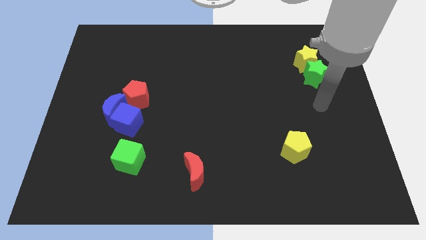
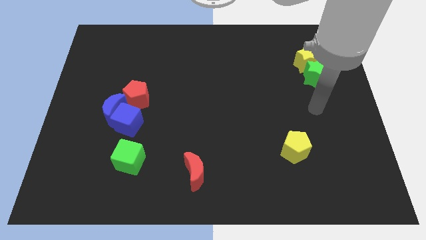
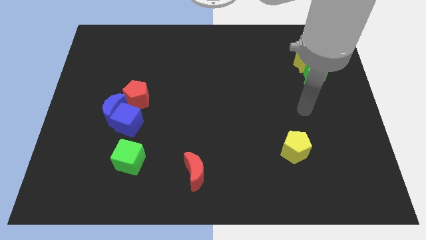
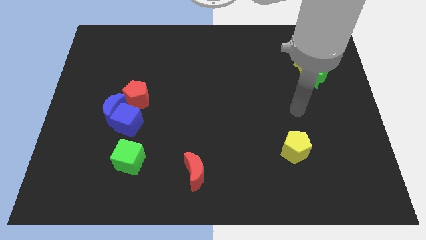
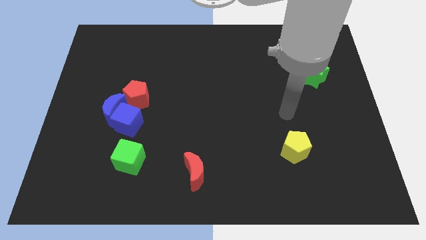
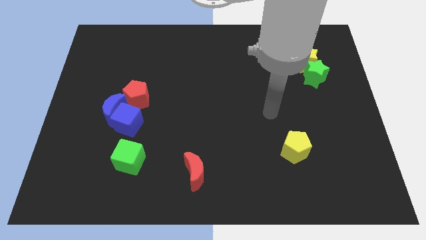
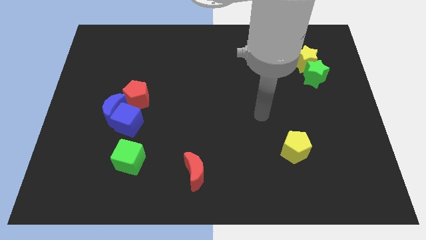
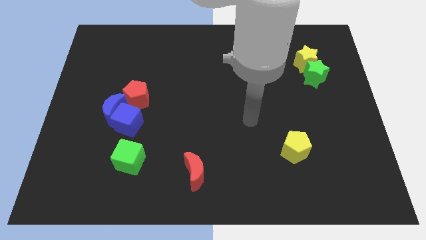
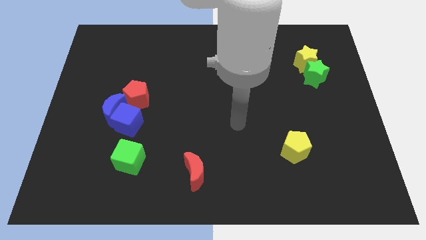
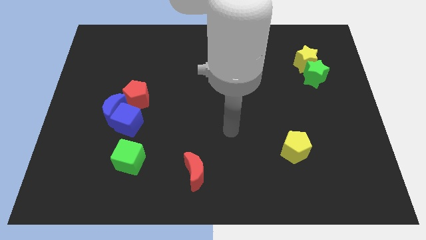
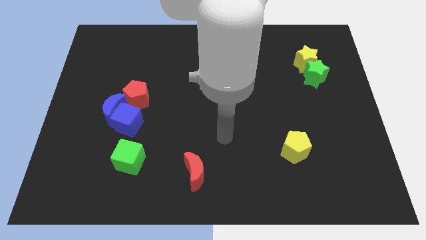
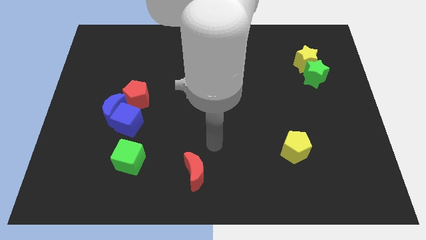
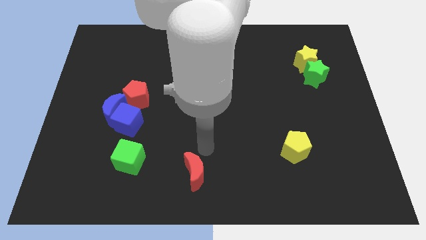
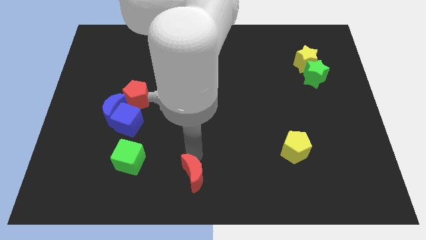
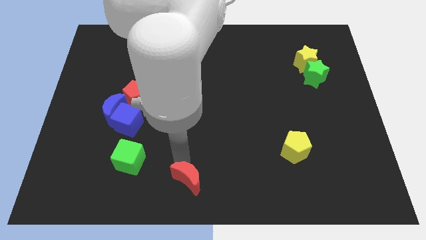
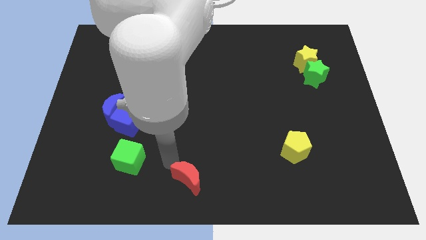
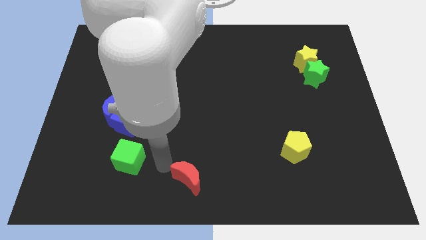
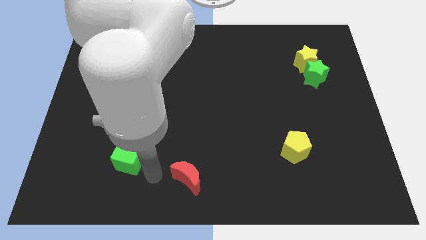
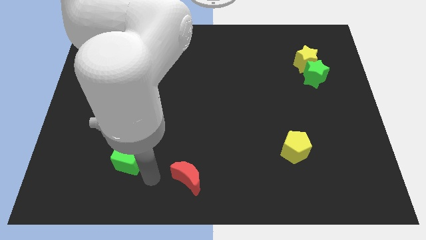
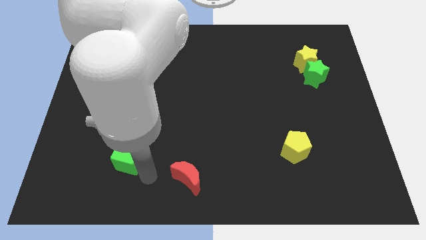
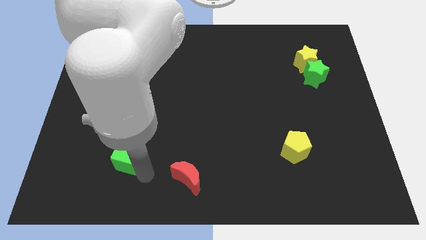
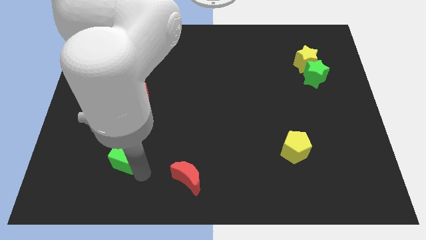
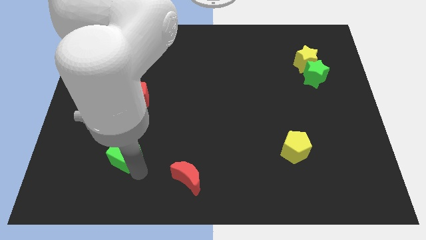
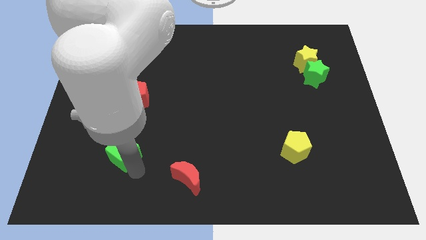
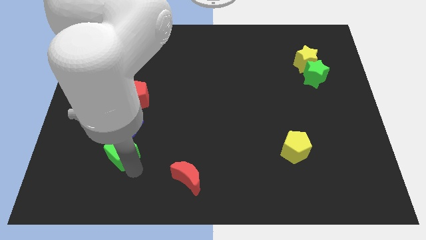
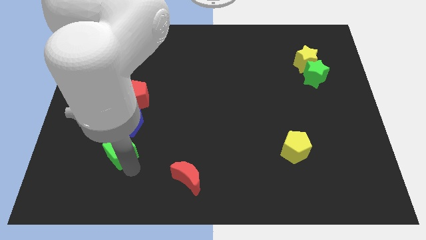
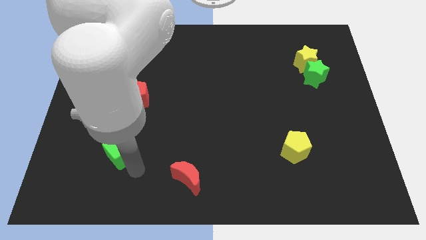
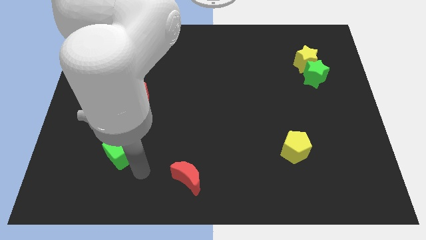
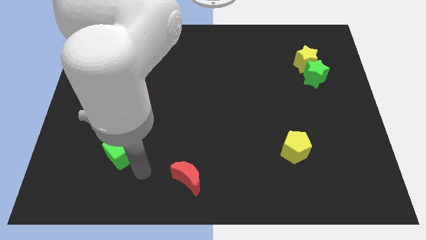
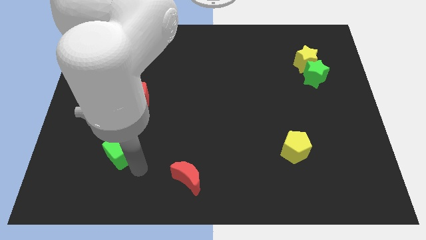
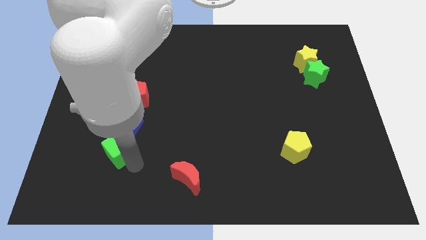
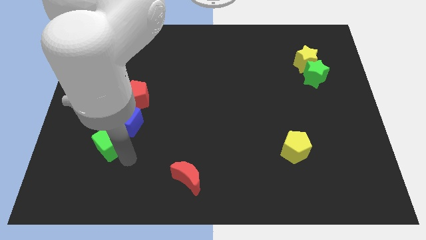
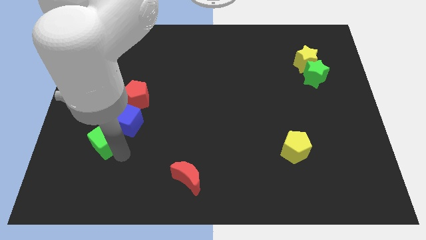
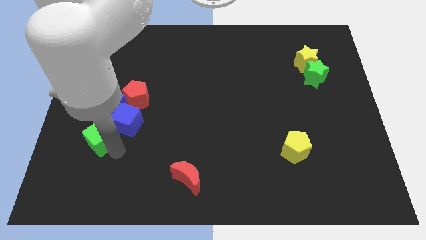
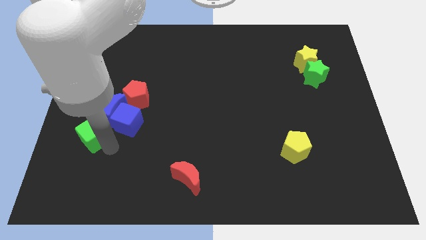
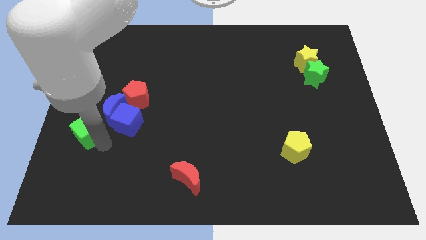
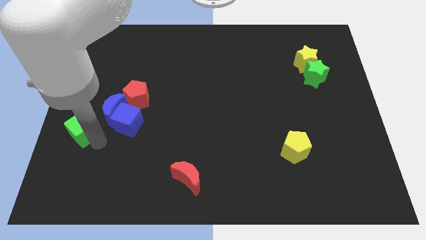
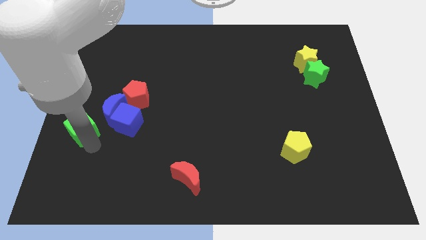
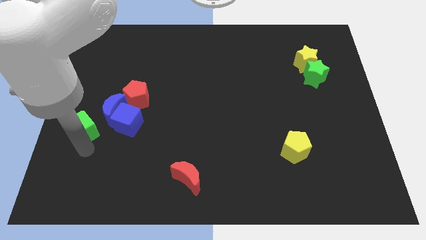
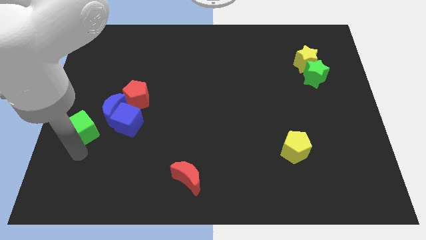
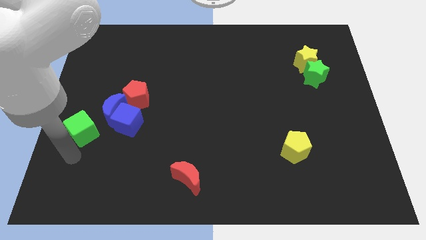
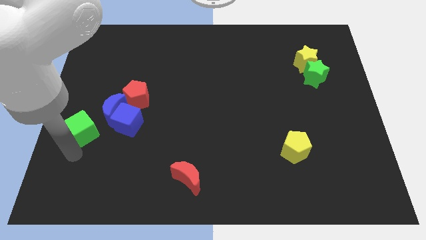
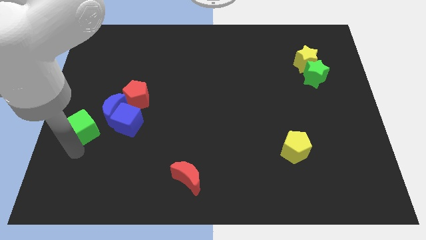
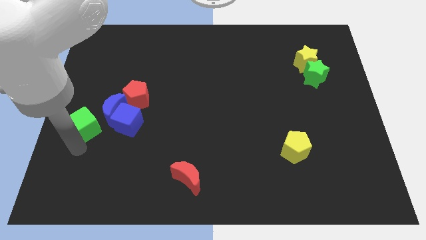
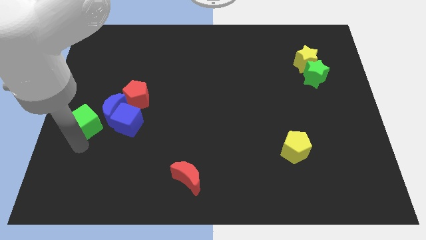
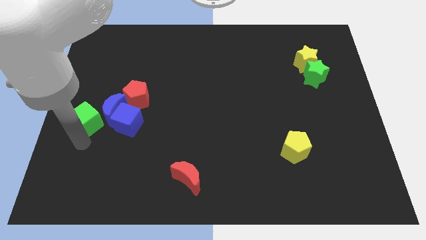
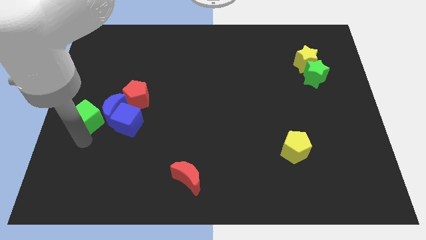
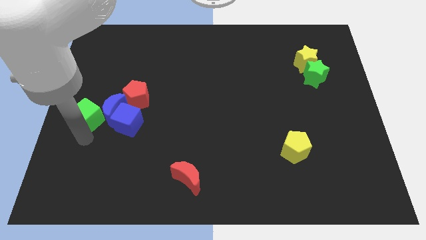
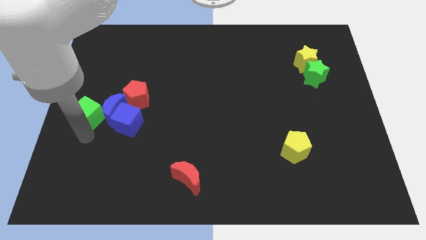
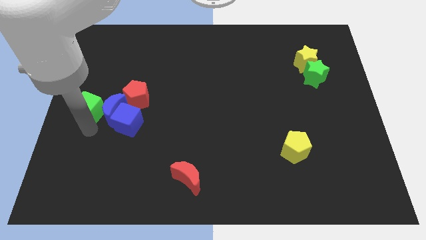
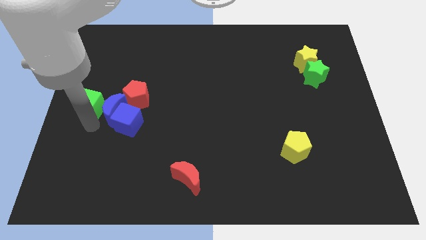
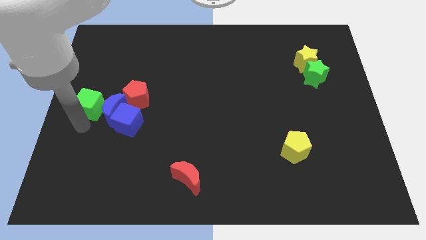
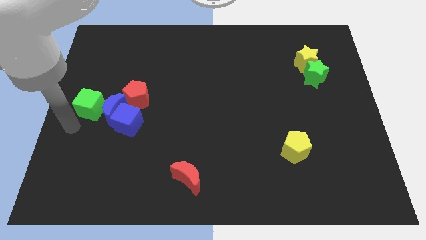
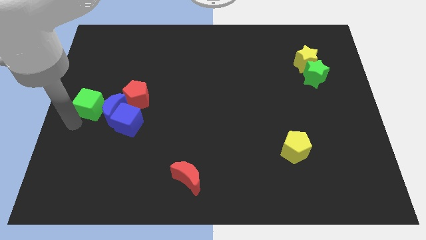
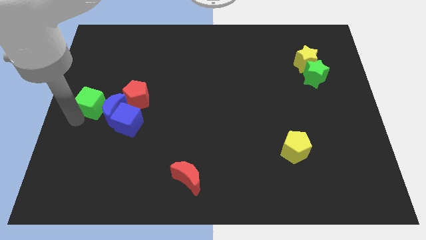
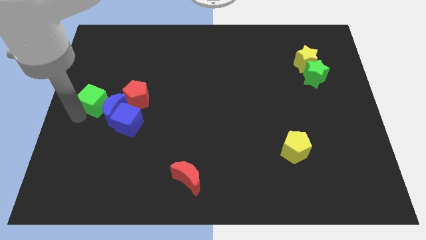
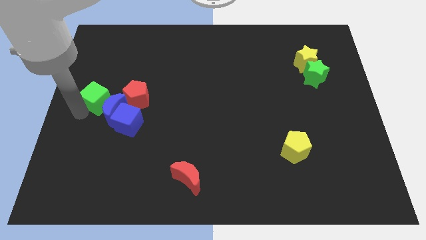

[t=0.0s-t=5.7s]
slide the green cube to the top of the blue moon

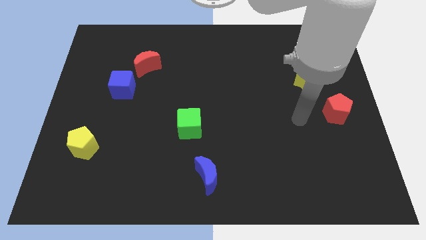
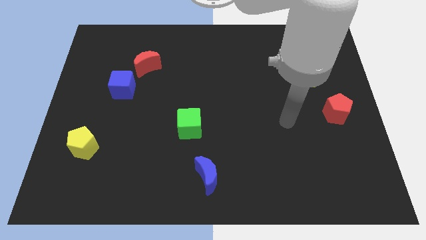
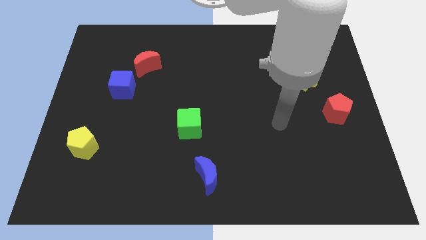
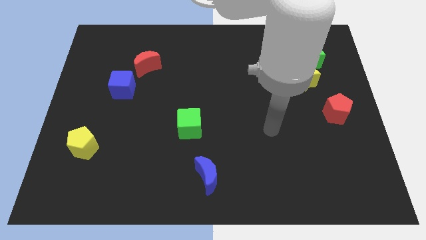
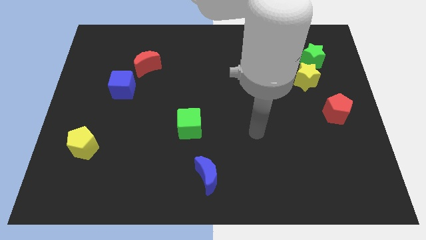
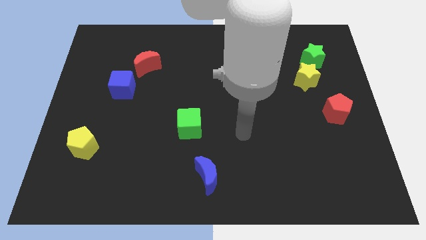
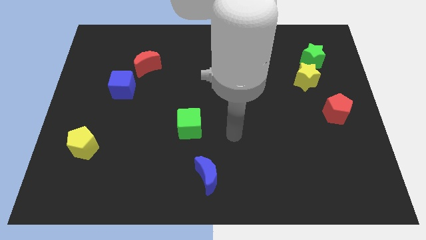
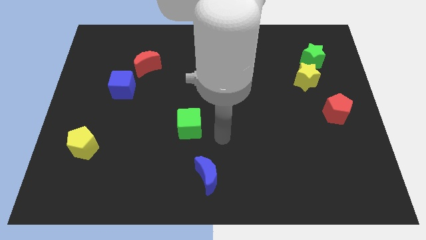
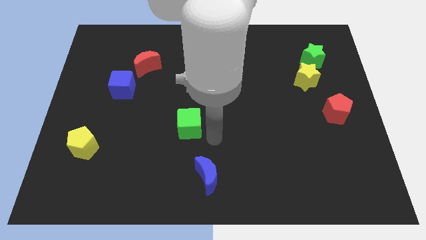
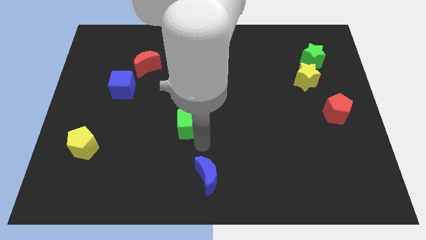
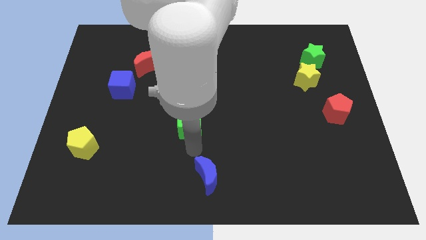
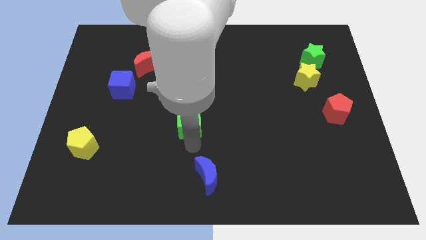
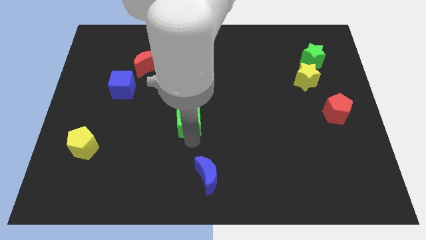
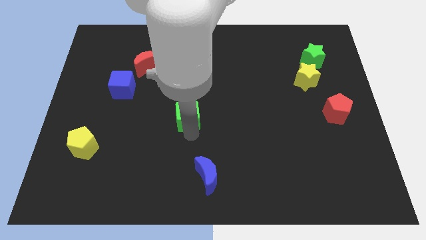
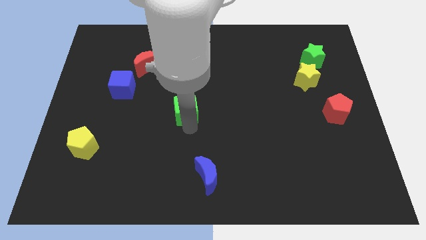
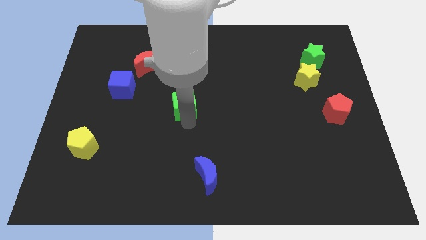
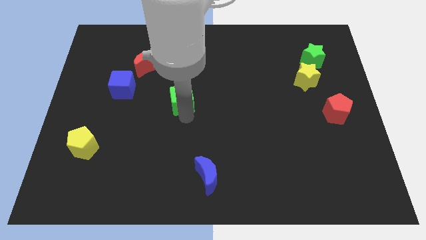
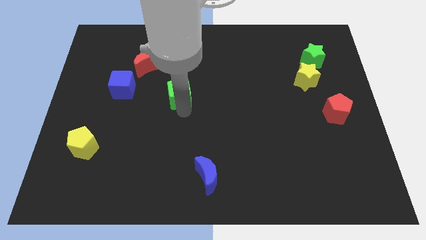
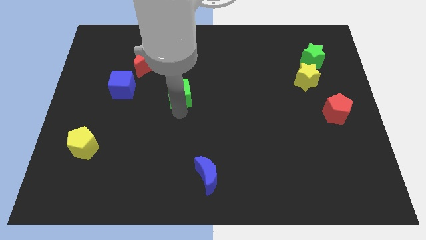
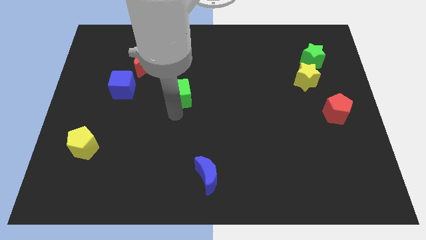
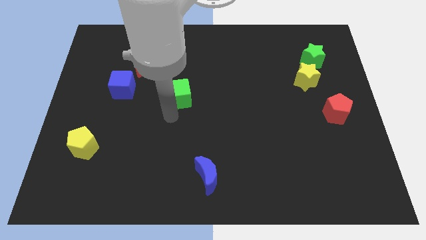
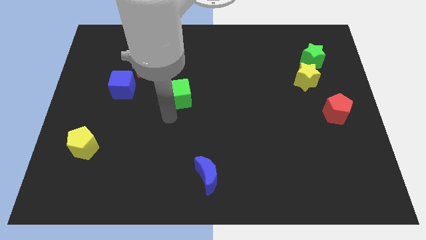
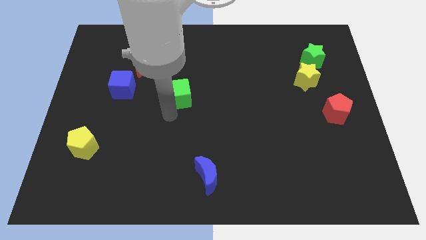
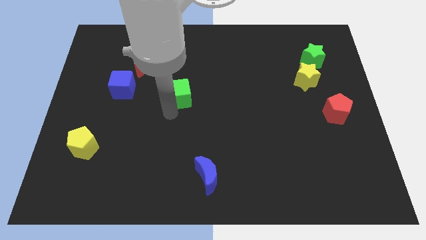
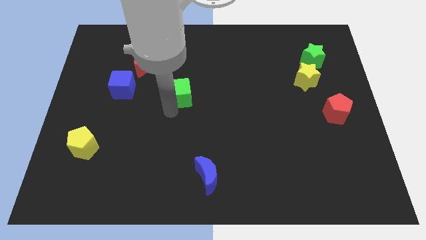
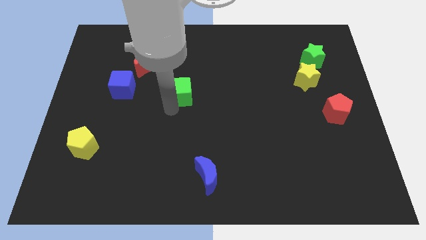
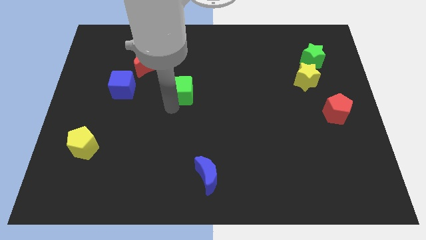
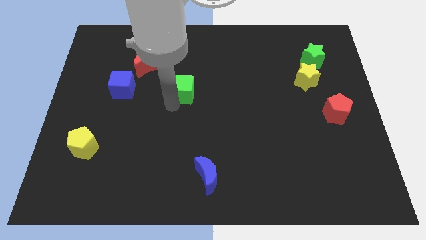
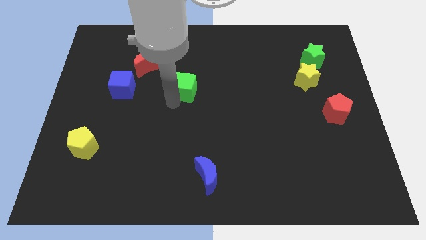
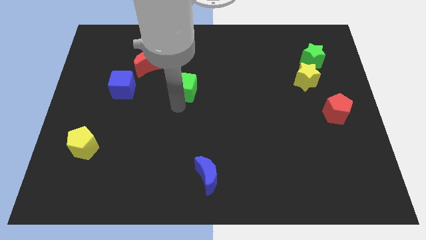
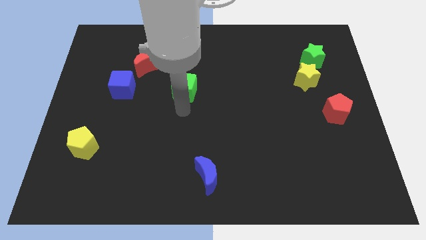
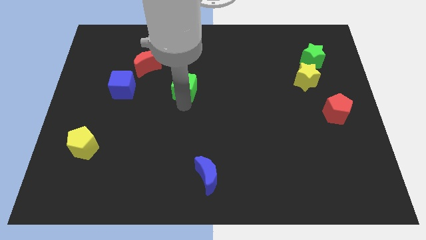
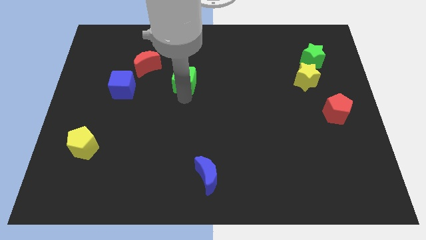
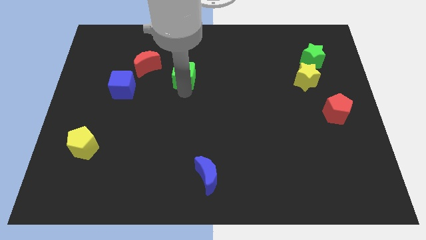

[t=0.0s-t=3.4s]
put the green cube just right of the red moon
